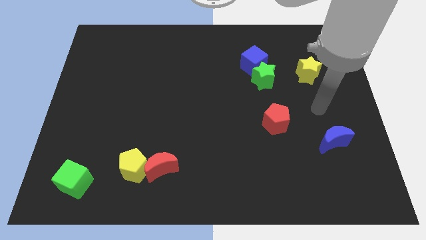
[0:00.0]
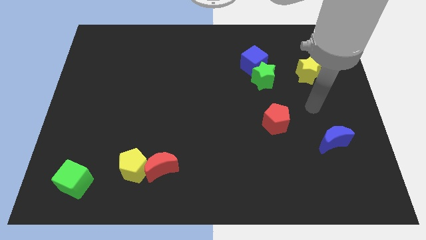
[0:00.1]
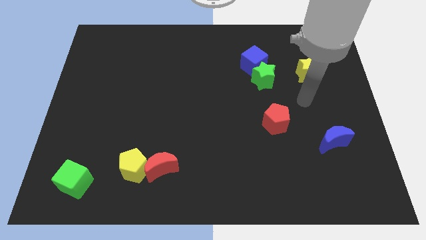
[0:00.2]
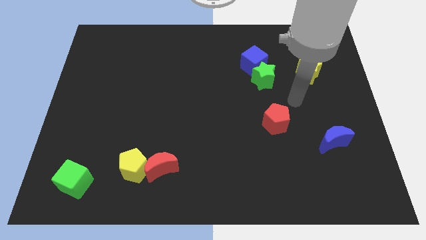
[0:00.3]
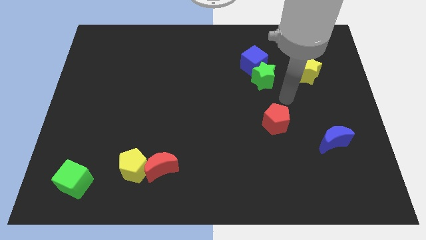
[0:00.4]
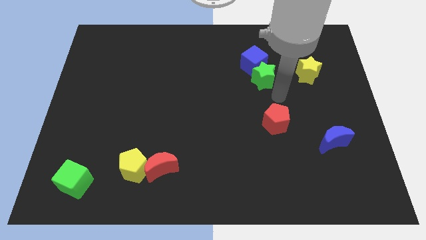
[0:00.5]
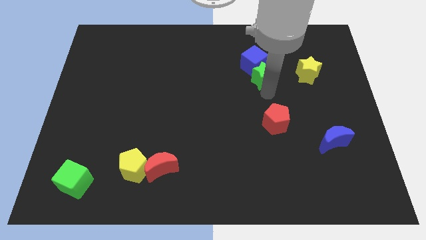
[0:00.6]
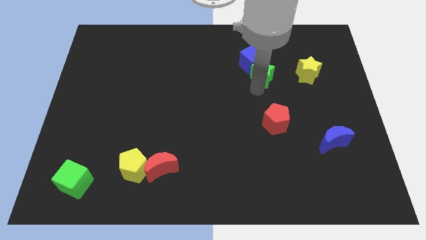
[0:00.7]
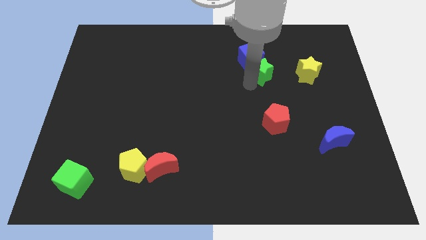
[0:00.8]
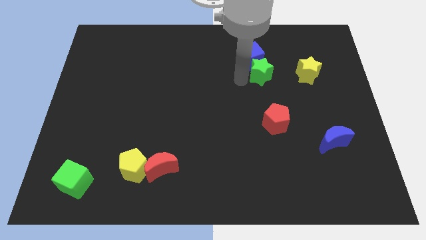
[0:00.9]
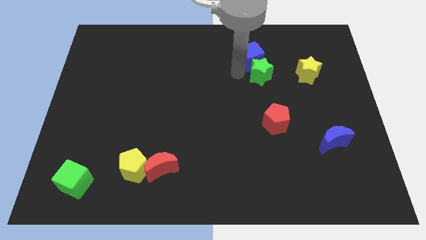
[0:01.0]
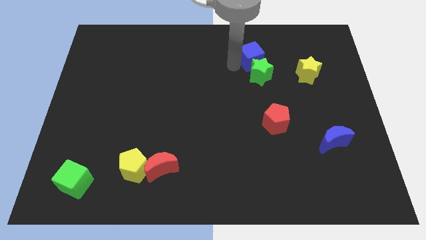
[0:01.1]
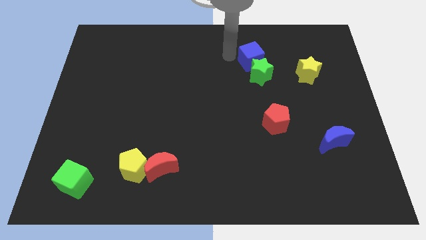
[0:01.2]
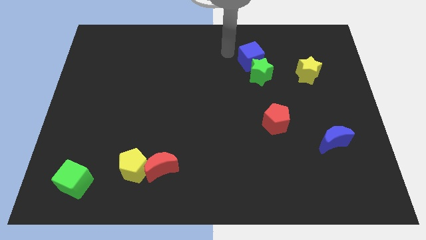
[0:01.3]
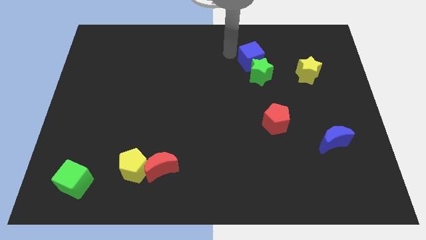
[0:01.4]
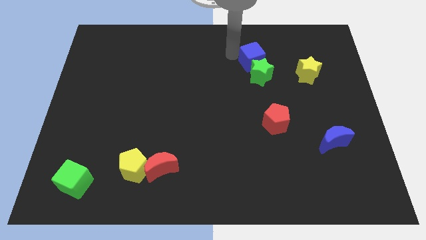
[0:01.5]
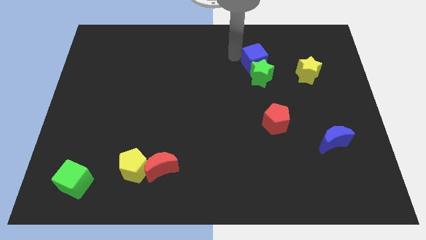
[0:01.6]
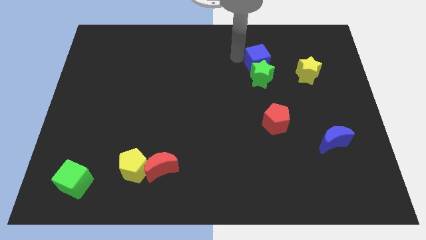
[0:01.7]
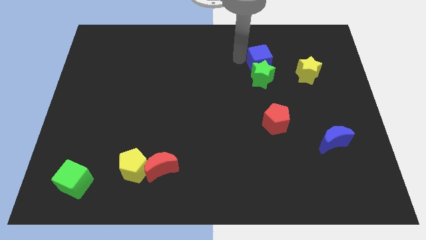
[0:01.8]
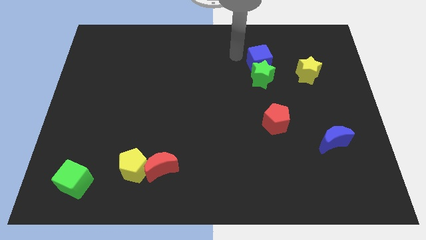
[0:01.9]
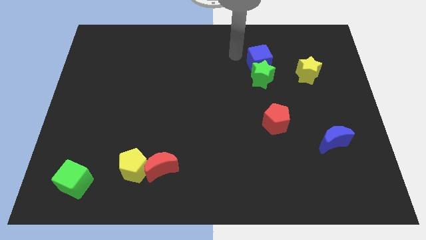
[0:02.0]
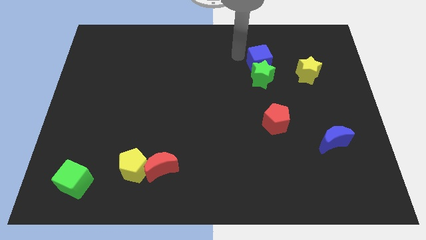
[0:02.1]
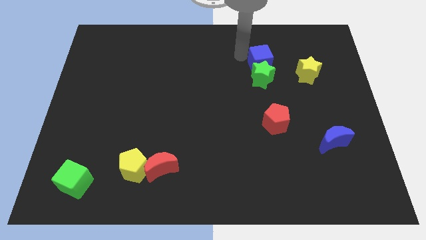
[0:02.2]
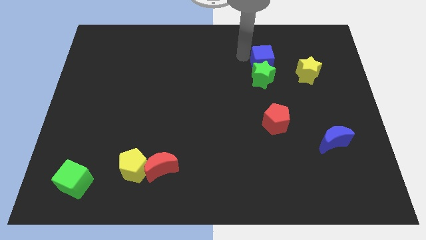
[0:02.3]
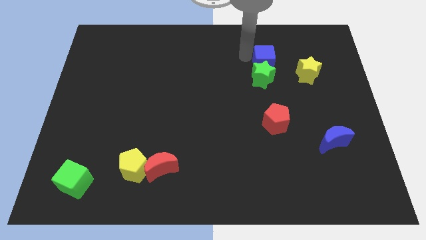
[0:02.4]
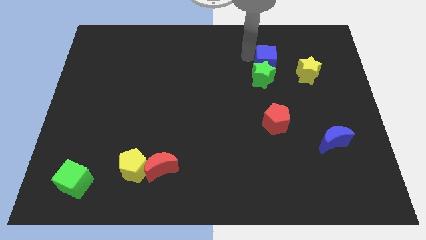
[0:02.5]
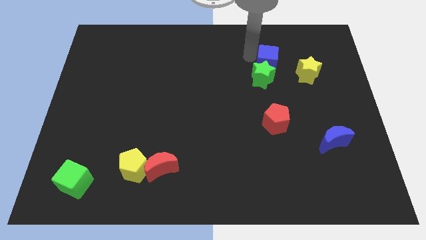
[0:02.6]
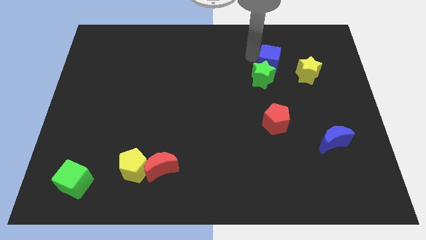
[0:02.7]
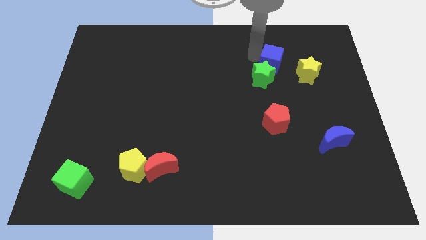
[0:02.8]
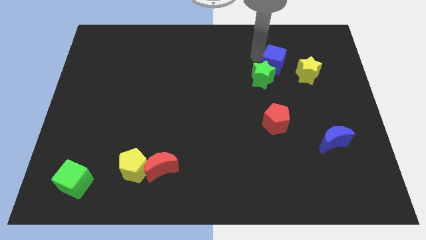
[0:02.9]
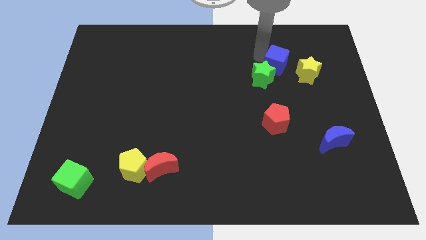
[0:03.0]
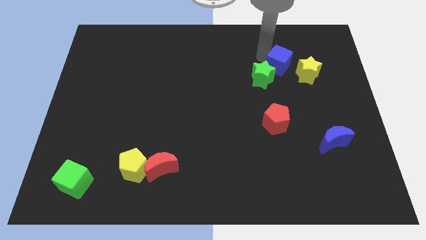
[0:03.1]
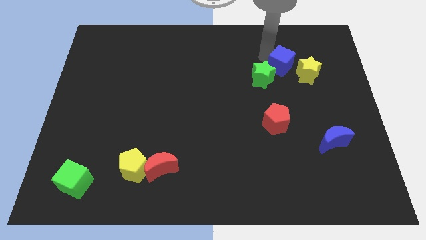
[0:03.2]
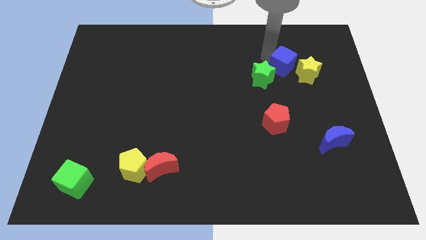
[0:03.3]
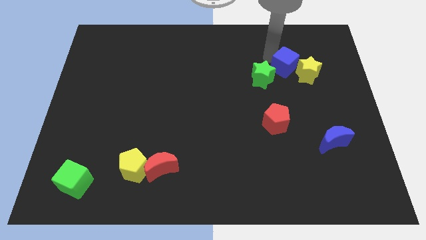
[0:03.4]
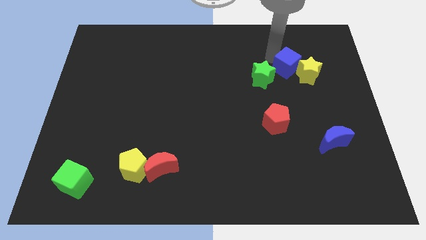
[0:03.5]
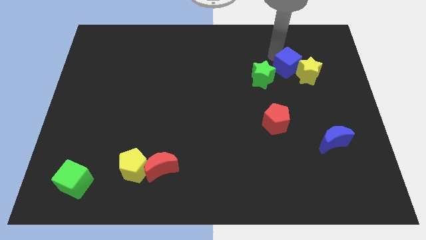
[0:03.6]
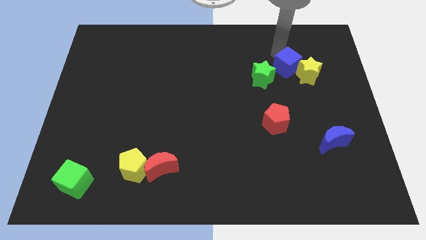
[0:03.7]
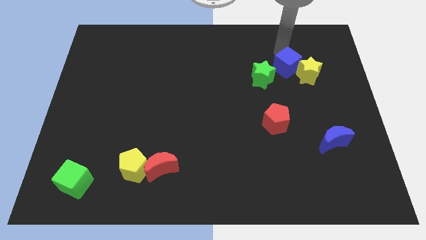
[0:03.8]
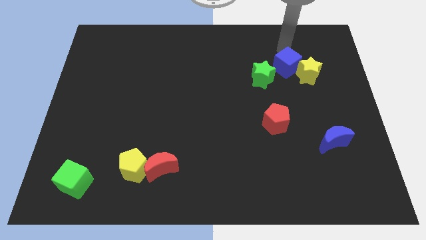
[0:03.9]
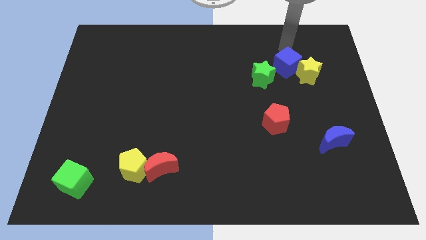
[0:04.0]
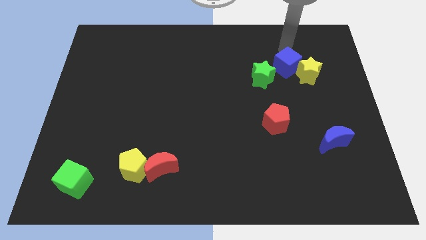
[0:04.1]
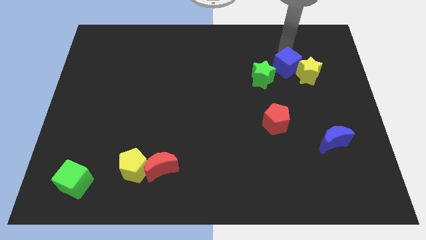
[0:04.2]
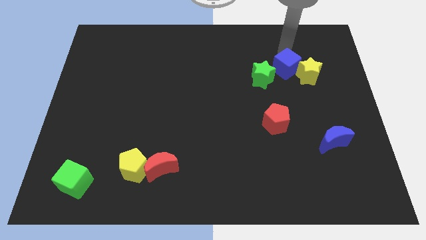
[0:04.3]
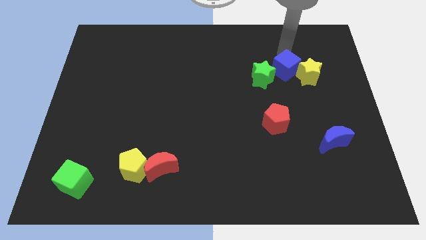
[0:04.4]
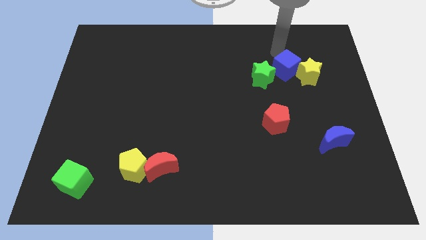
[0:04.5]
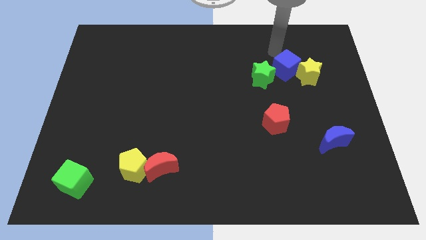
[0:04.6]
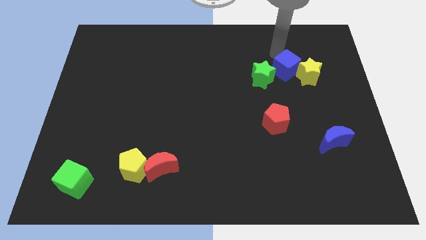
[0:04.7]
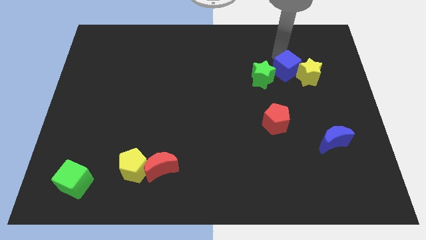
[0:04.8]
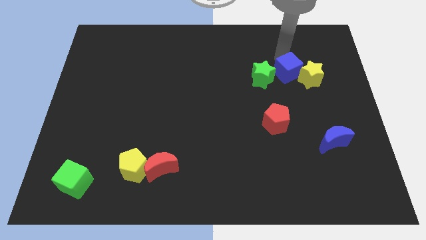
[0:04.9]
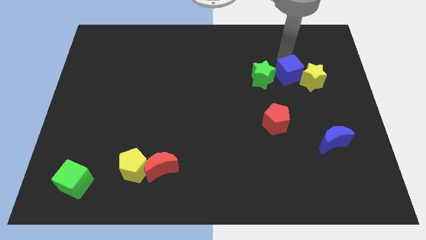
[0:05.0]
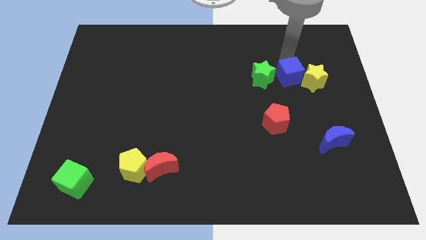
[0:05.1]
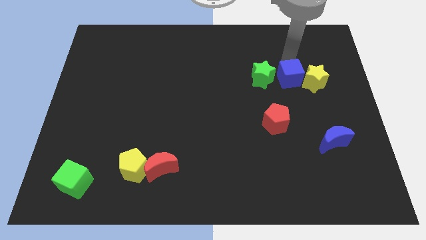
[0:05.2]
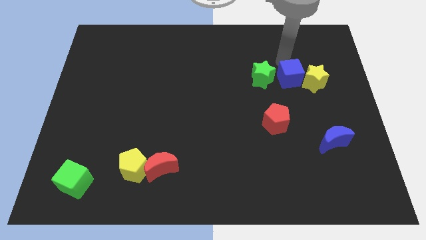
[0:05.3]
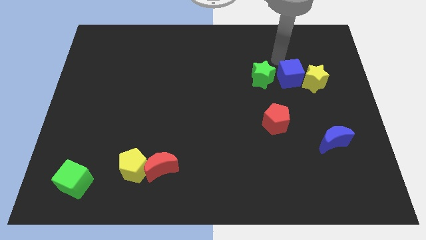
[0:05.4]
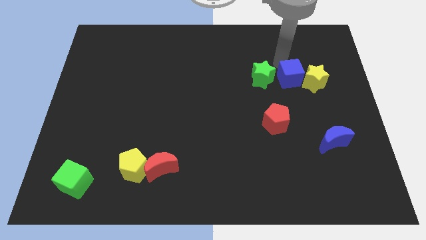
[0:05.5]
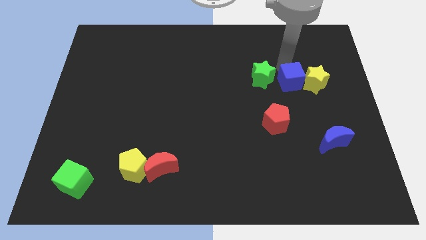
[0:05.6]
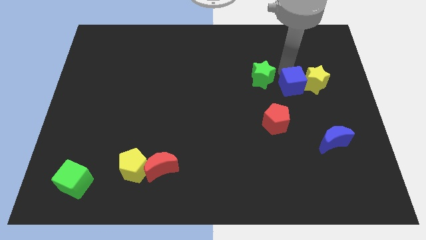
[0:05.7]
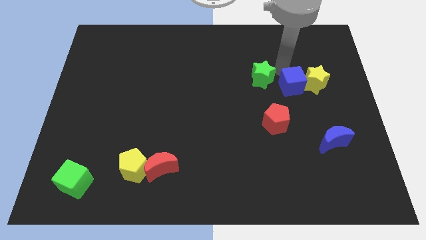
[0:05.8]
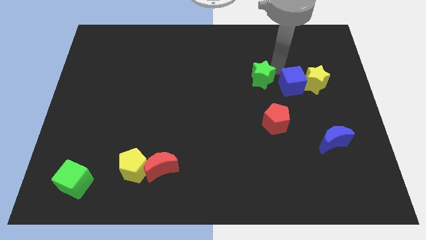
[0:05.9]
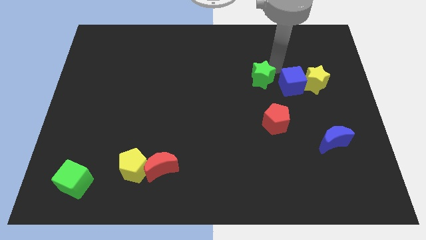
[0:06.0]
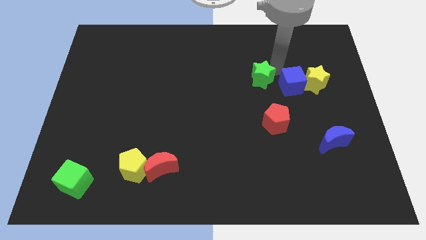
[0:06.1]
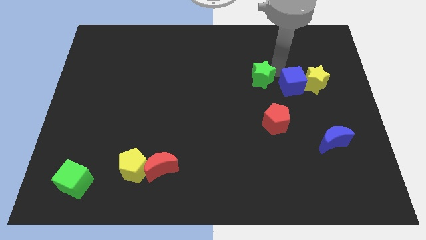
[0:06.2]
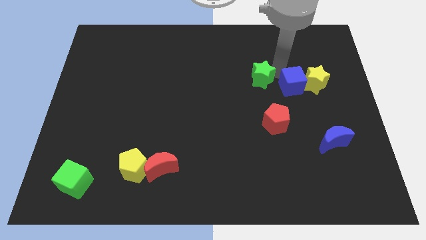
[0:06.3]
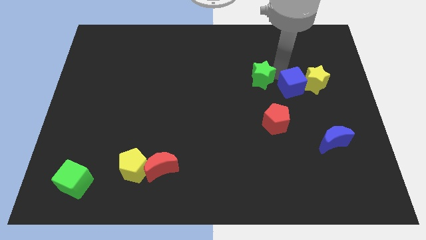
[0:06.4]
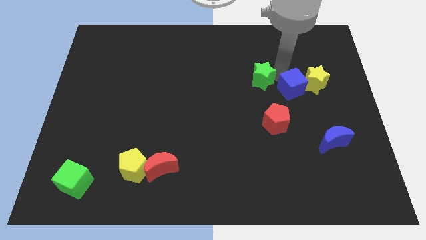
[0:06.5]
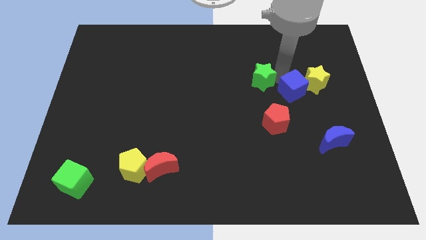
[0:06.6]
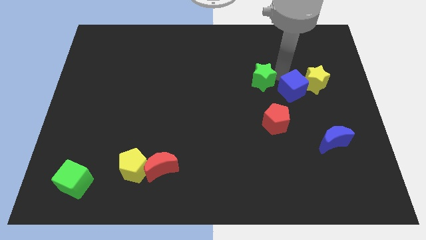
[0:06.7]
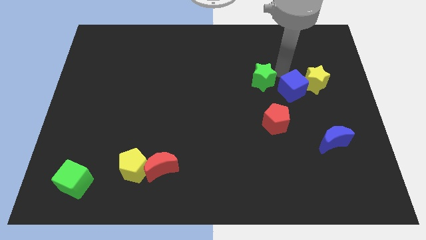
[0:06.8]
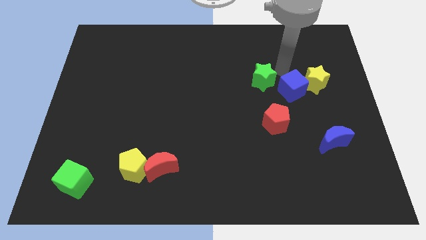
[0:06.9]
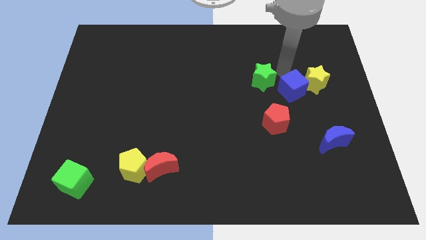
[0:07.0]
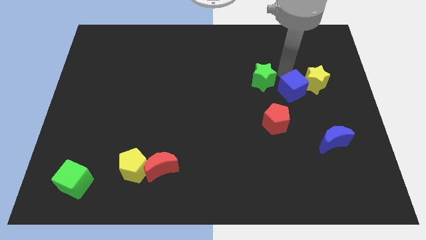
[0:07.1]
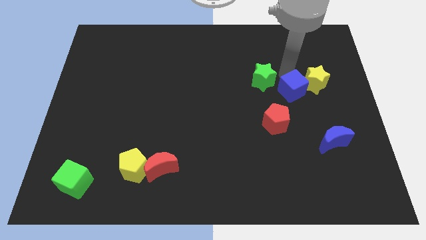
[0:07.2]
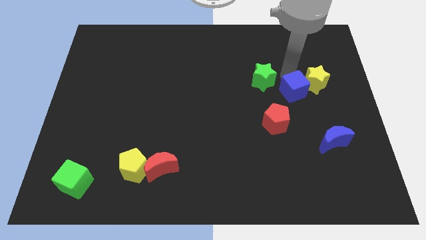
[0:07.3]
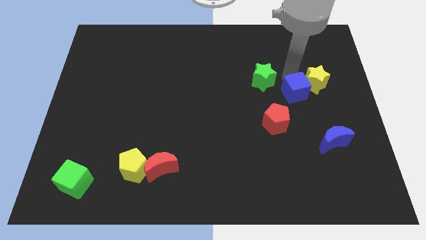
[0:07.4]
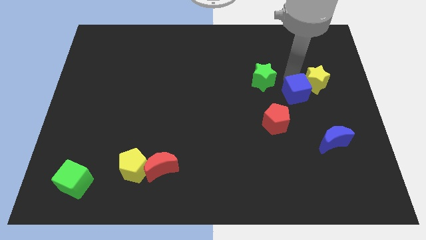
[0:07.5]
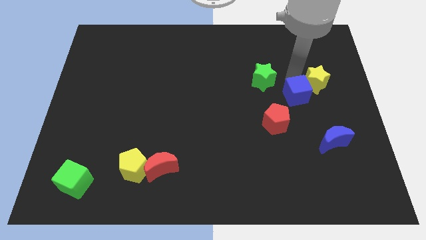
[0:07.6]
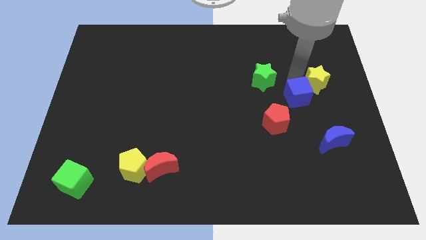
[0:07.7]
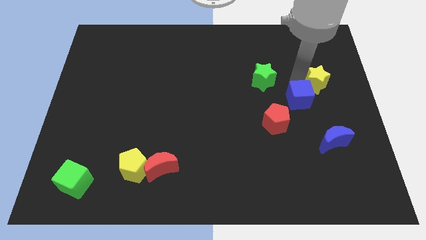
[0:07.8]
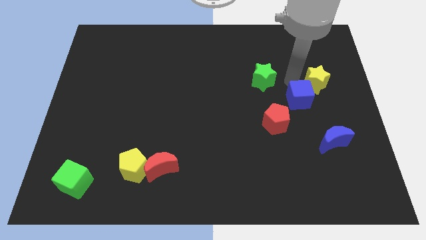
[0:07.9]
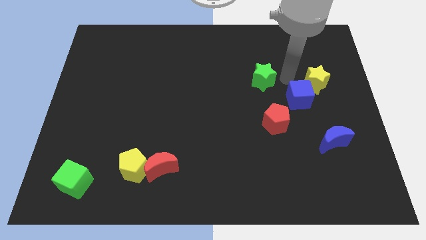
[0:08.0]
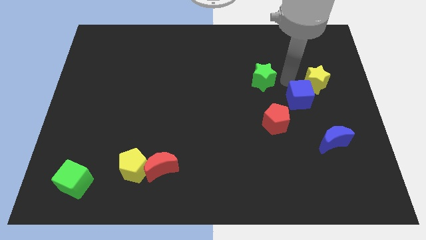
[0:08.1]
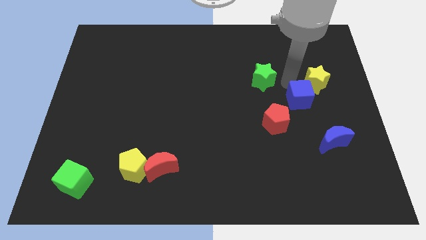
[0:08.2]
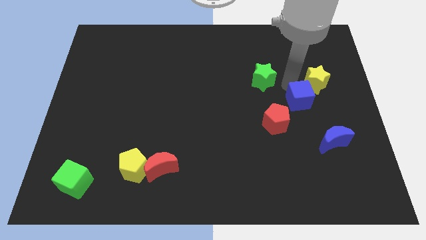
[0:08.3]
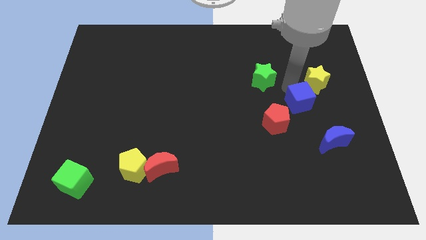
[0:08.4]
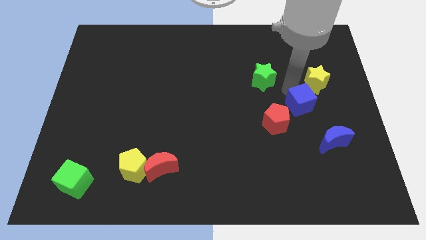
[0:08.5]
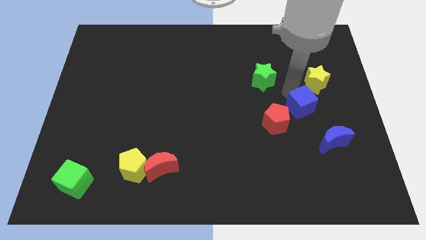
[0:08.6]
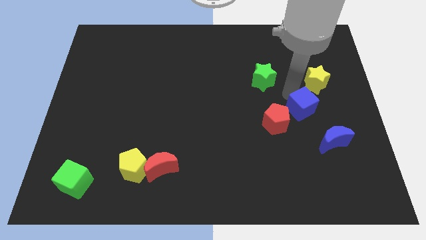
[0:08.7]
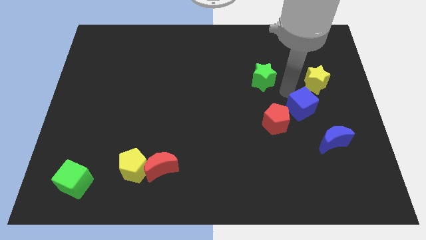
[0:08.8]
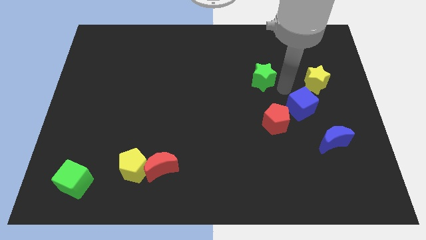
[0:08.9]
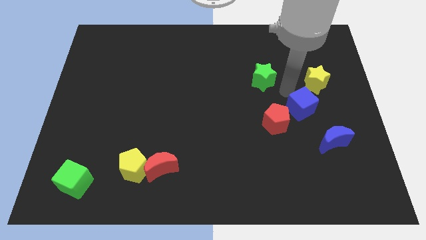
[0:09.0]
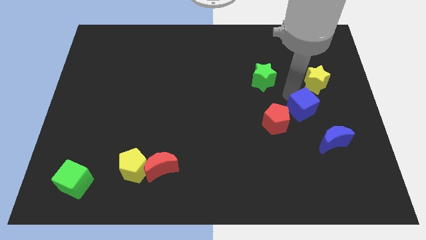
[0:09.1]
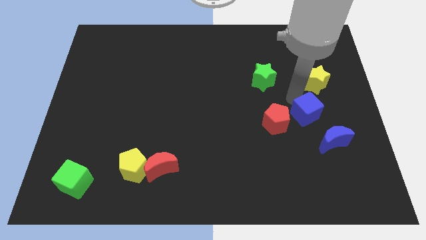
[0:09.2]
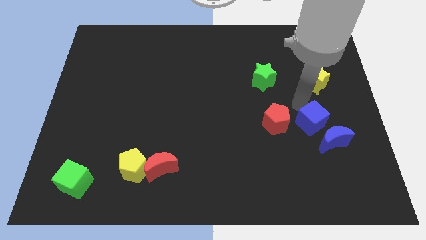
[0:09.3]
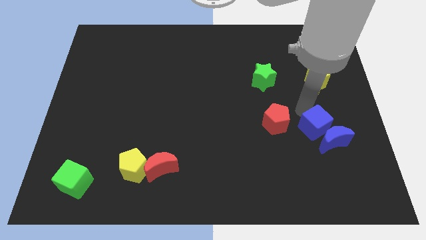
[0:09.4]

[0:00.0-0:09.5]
move the blue cube next to the blue moon
